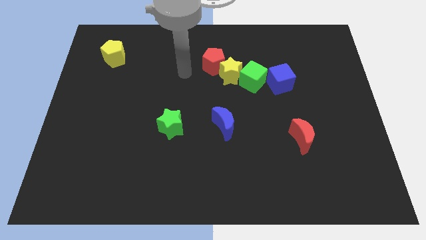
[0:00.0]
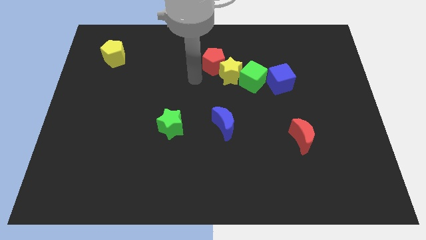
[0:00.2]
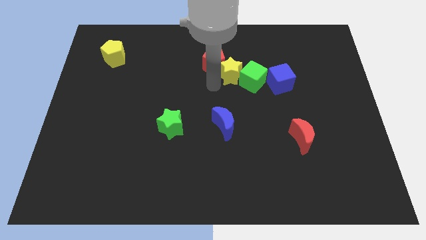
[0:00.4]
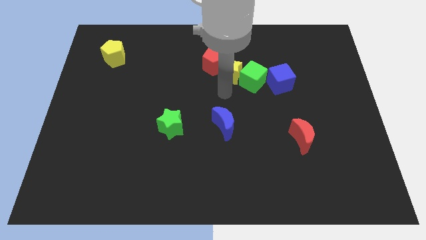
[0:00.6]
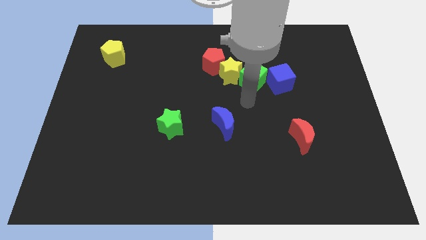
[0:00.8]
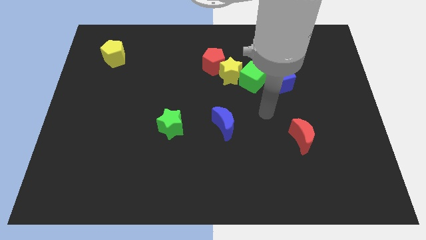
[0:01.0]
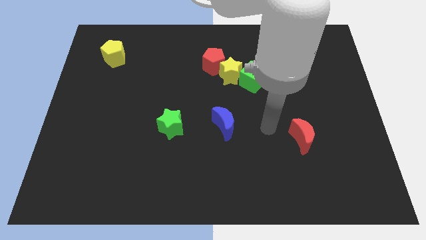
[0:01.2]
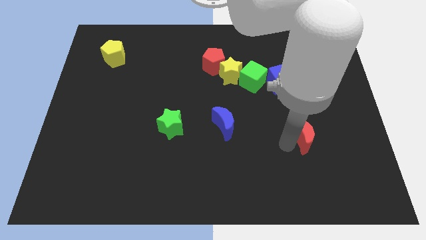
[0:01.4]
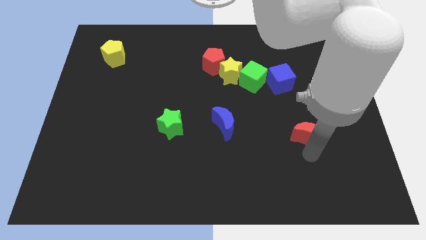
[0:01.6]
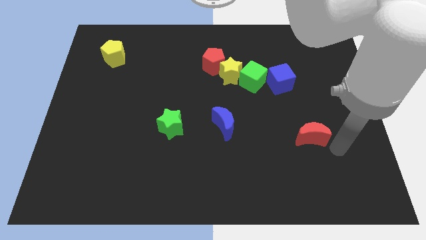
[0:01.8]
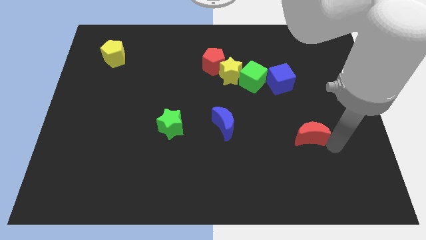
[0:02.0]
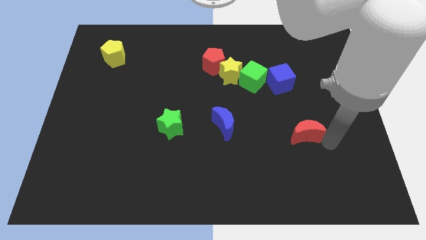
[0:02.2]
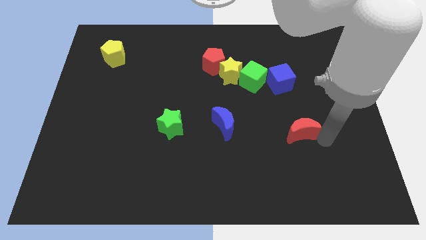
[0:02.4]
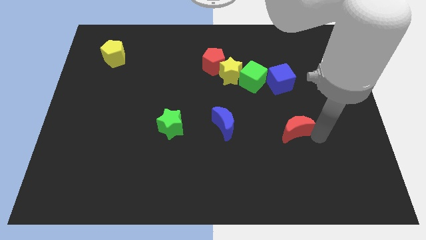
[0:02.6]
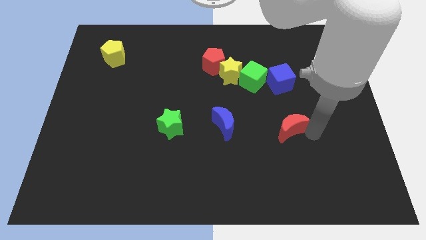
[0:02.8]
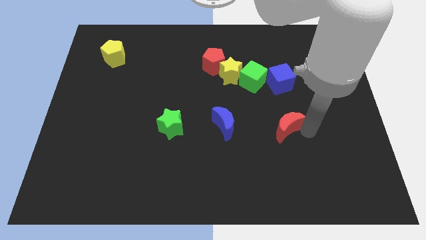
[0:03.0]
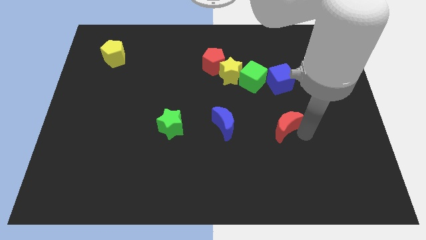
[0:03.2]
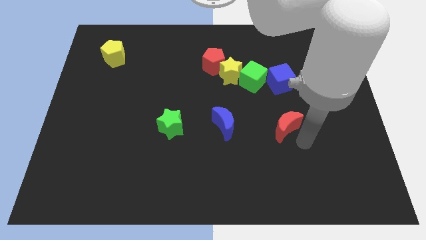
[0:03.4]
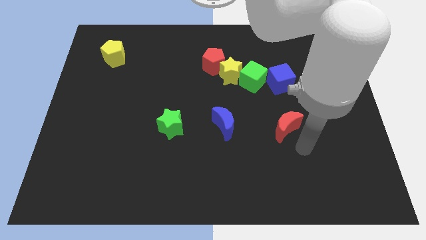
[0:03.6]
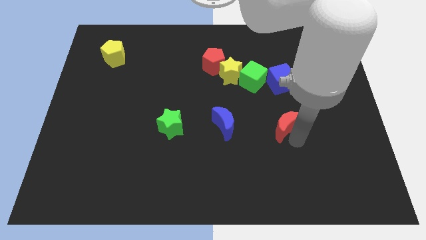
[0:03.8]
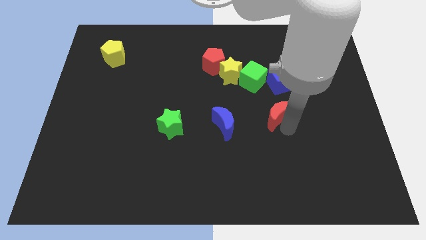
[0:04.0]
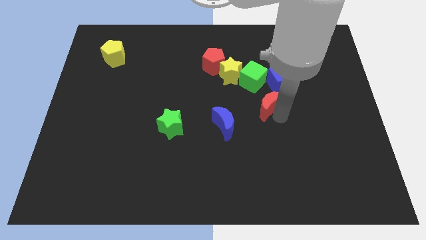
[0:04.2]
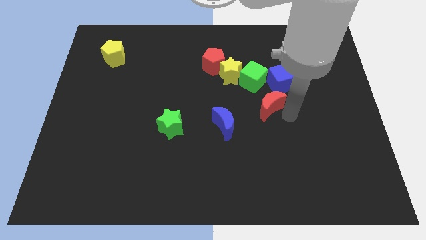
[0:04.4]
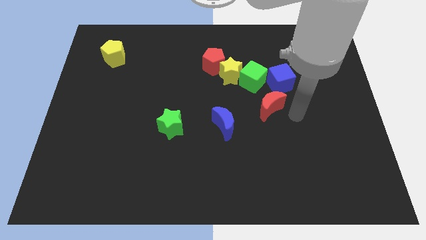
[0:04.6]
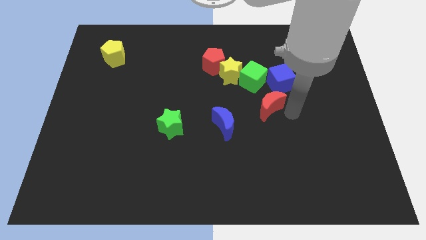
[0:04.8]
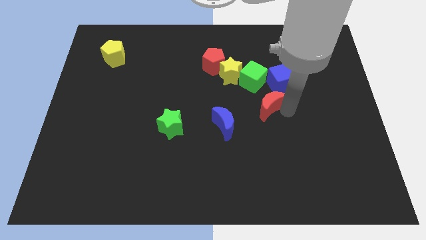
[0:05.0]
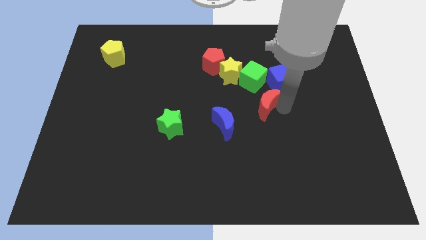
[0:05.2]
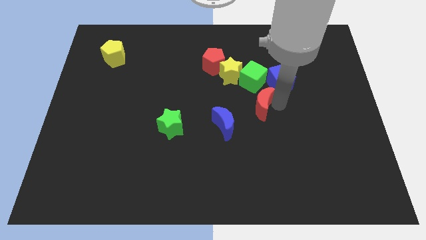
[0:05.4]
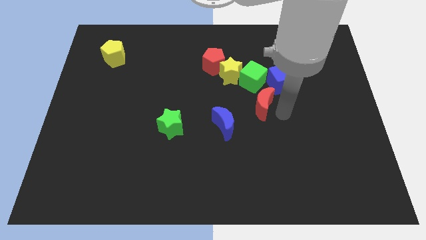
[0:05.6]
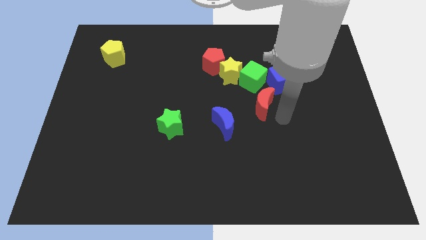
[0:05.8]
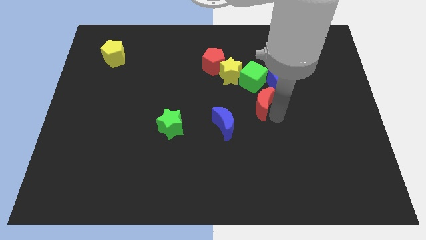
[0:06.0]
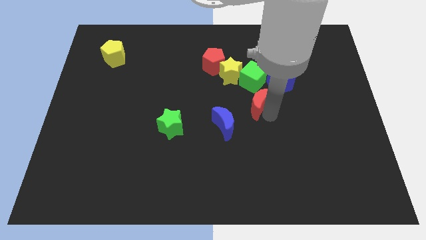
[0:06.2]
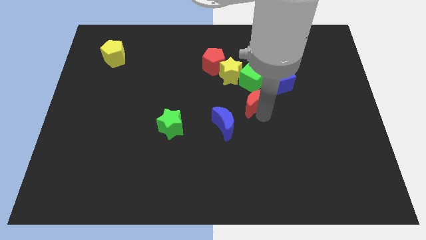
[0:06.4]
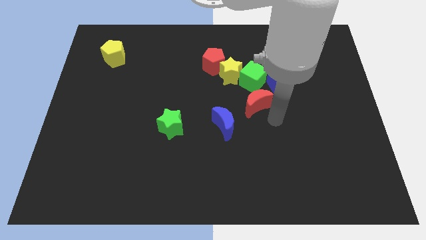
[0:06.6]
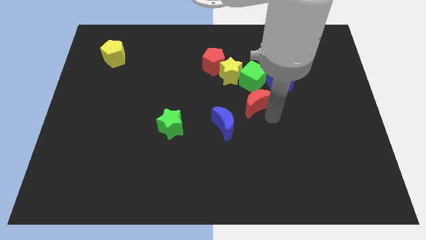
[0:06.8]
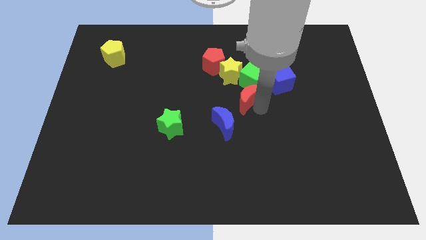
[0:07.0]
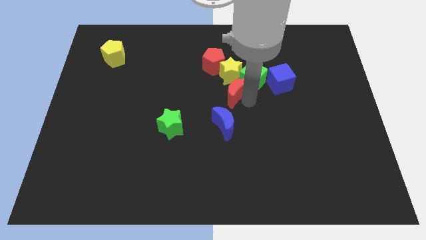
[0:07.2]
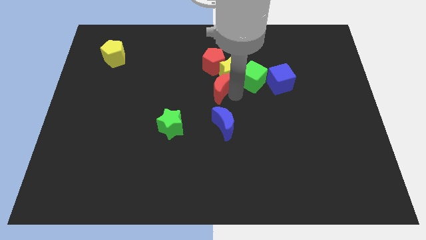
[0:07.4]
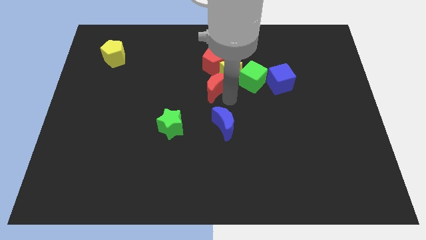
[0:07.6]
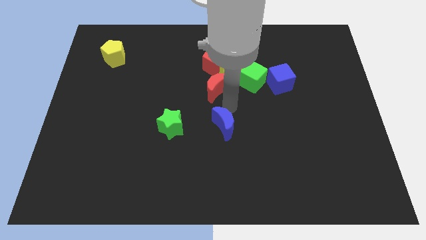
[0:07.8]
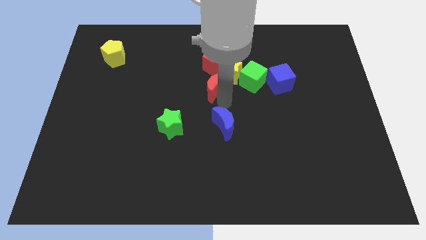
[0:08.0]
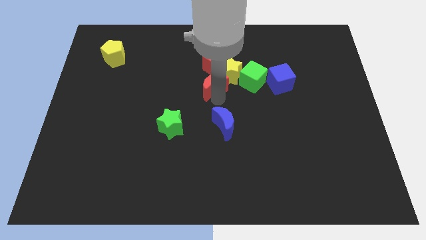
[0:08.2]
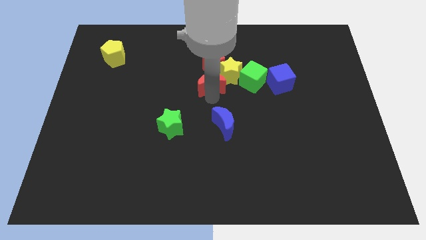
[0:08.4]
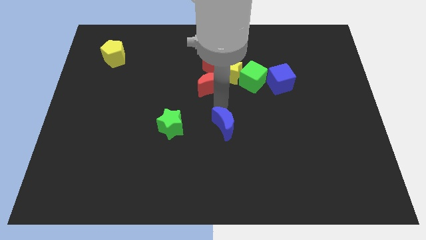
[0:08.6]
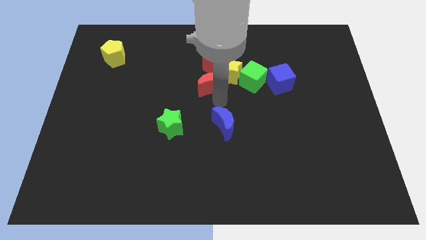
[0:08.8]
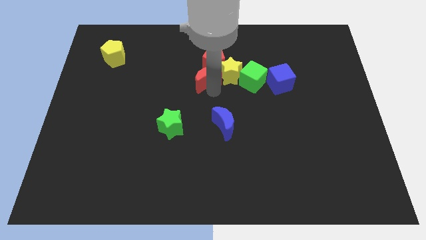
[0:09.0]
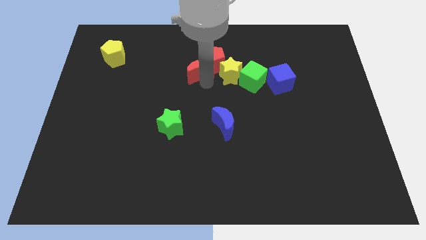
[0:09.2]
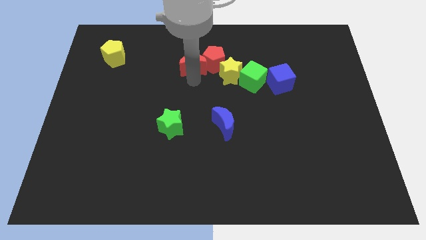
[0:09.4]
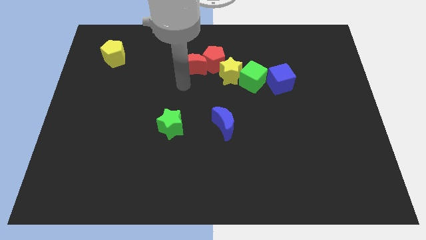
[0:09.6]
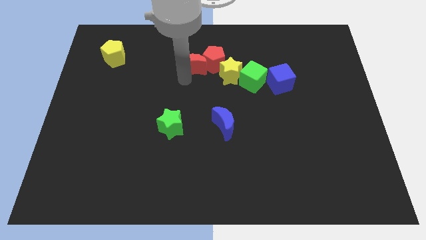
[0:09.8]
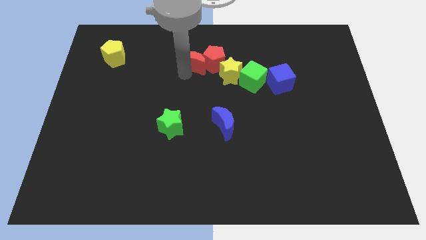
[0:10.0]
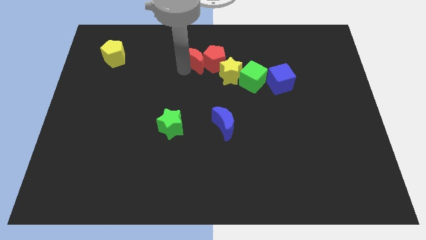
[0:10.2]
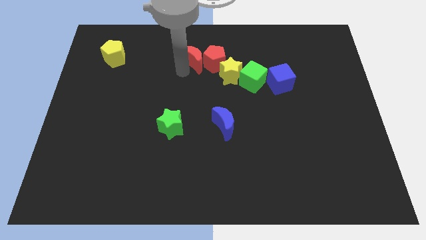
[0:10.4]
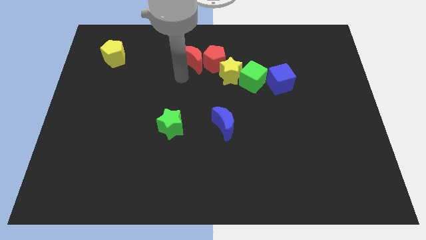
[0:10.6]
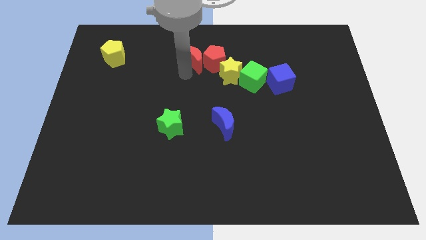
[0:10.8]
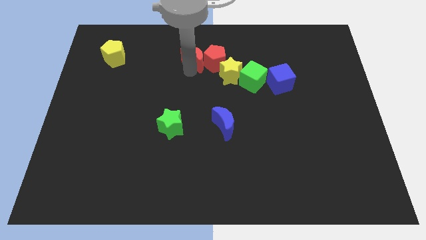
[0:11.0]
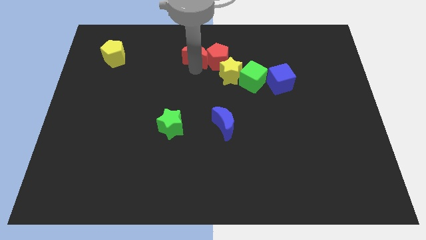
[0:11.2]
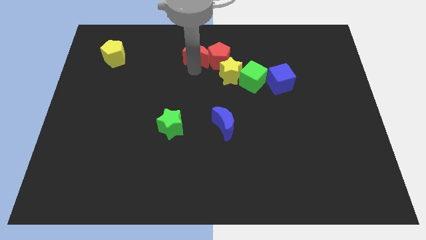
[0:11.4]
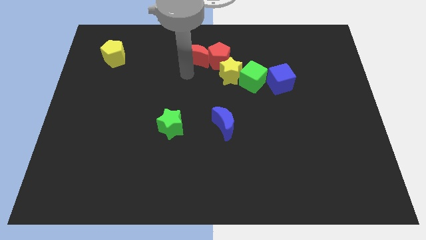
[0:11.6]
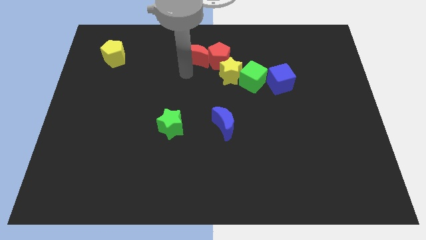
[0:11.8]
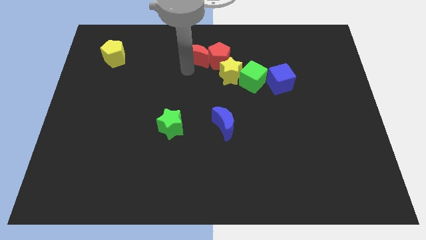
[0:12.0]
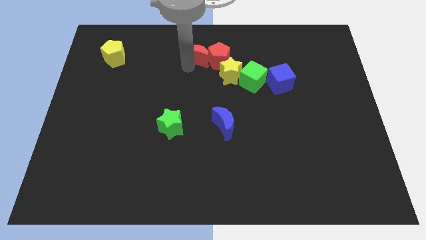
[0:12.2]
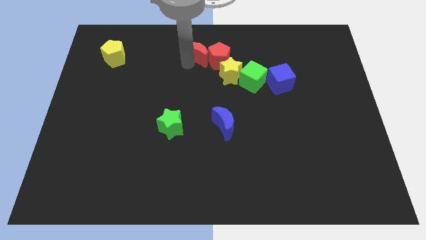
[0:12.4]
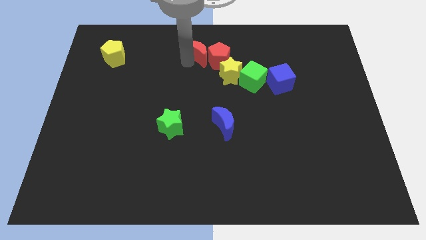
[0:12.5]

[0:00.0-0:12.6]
slide the red moon to the top side
